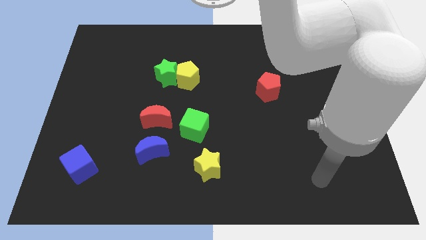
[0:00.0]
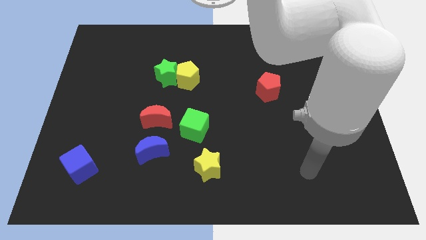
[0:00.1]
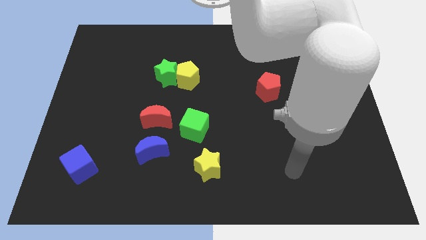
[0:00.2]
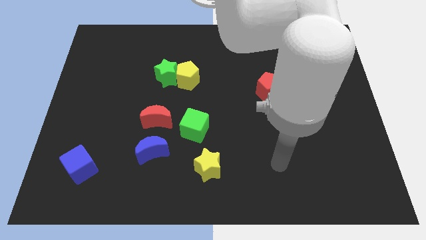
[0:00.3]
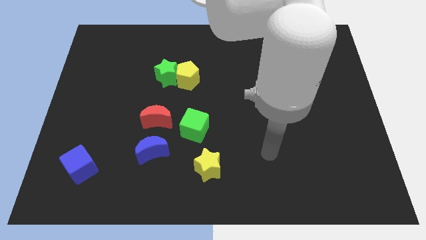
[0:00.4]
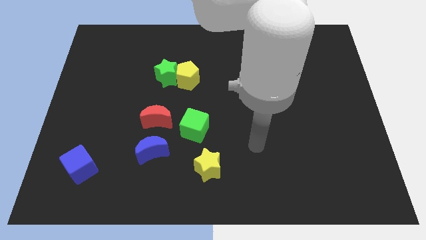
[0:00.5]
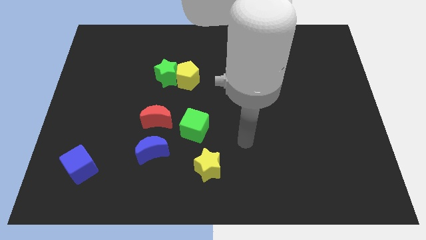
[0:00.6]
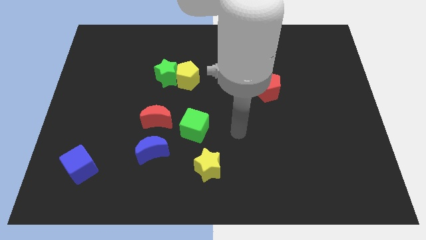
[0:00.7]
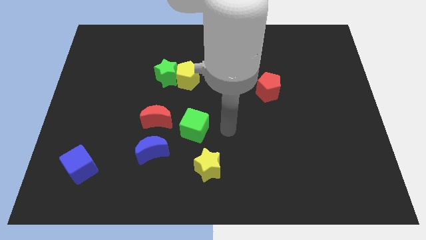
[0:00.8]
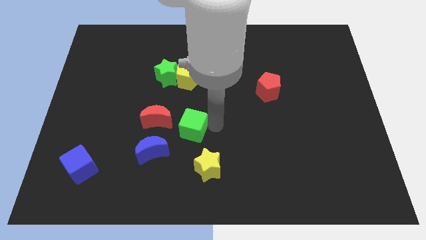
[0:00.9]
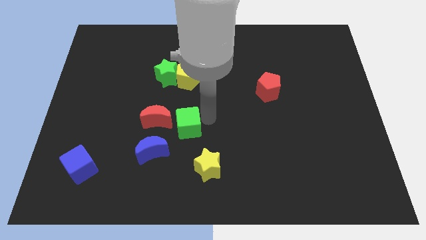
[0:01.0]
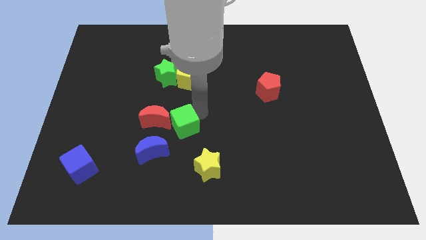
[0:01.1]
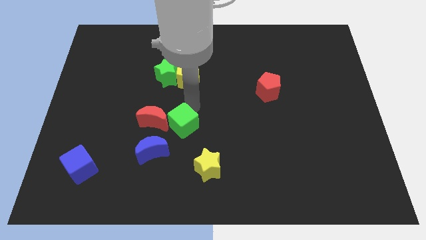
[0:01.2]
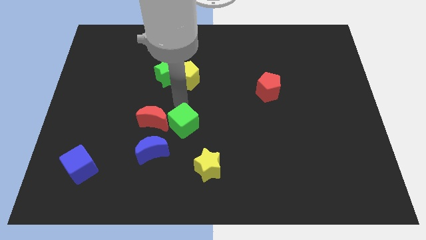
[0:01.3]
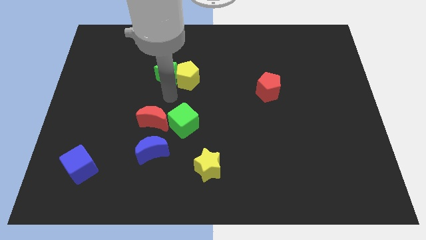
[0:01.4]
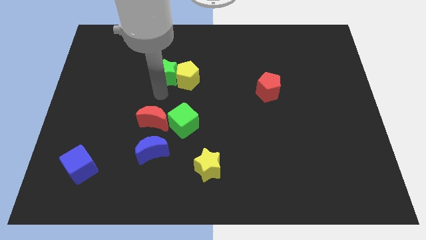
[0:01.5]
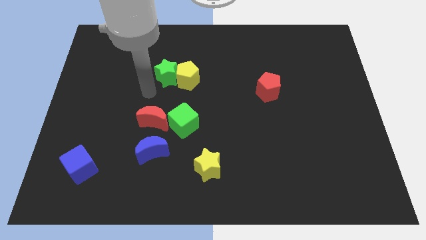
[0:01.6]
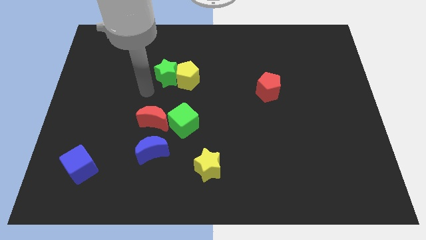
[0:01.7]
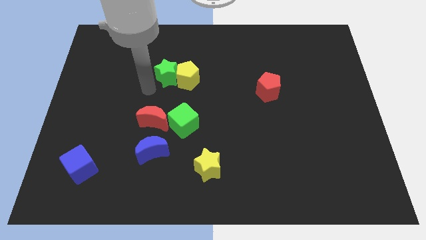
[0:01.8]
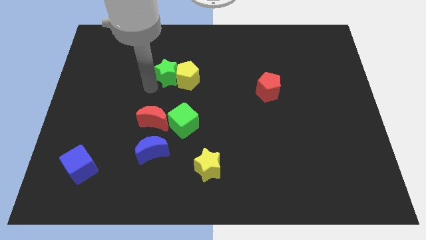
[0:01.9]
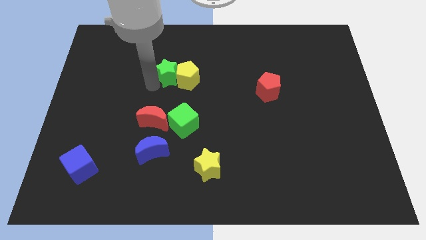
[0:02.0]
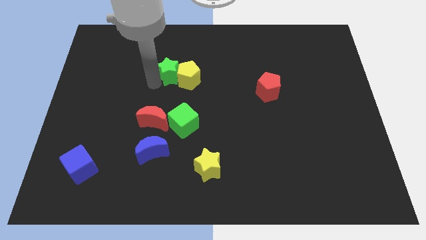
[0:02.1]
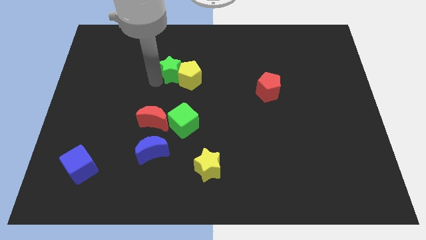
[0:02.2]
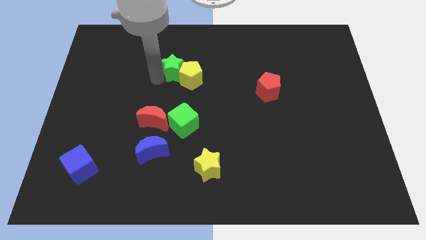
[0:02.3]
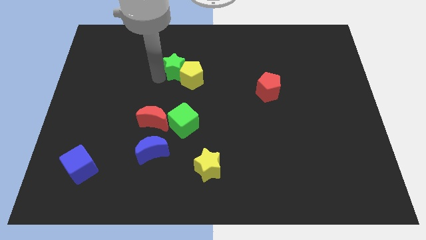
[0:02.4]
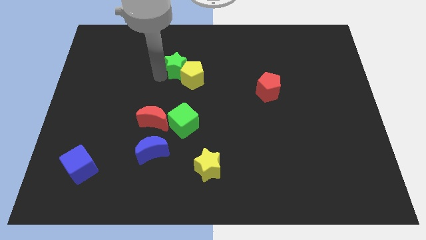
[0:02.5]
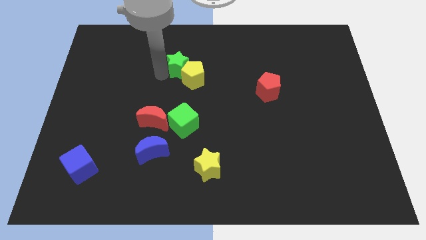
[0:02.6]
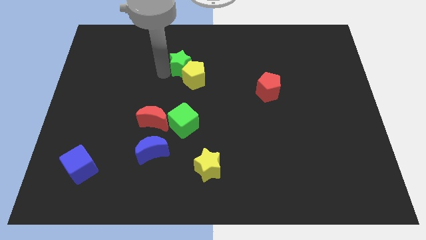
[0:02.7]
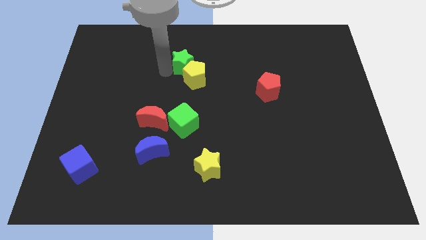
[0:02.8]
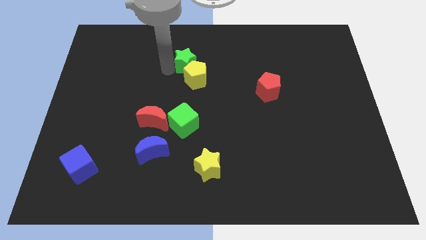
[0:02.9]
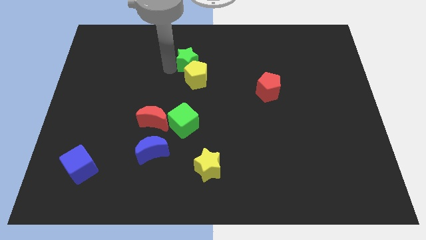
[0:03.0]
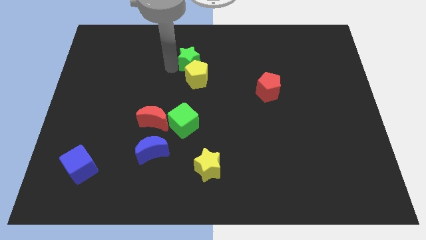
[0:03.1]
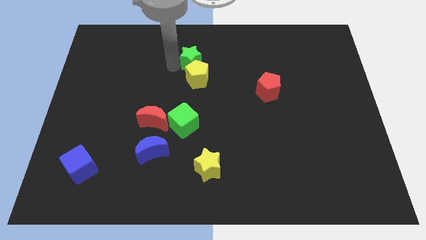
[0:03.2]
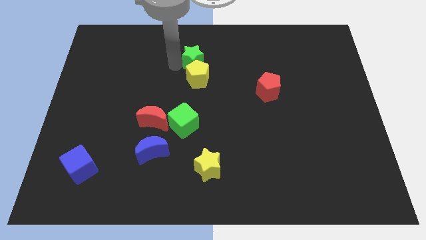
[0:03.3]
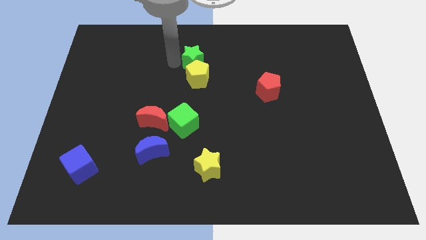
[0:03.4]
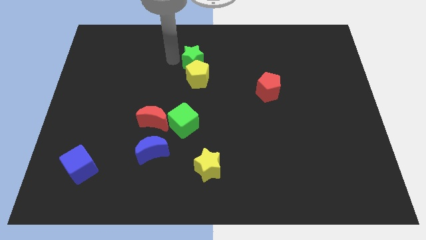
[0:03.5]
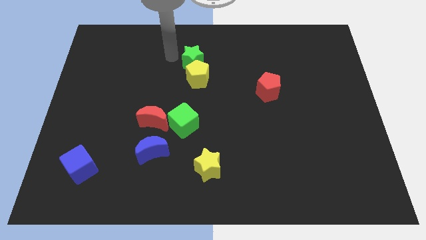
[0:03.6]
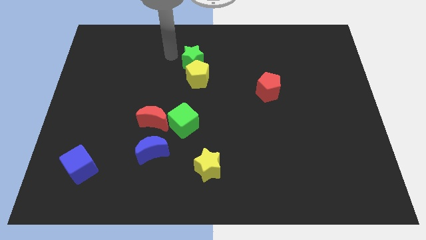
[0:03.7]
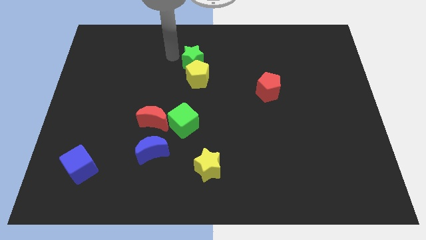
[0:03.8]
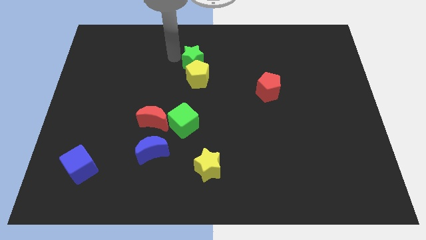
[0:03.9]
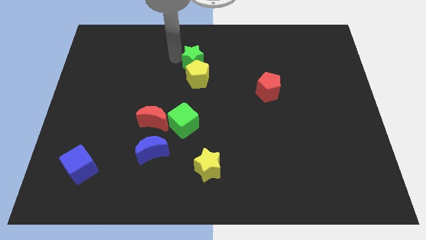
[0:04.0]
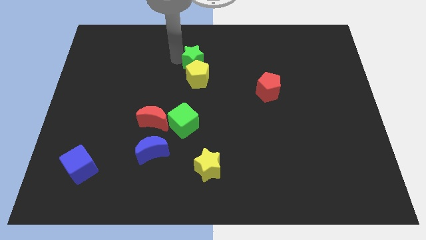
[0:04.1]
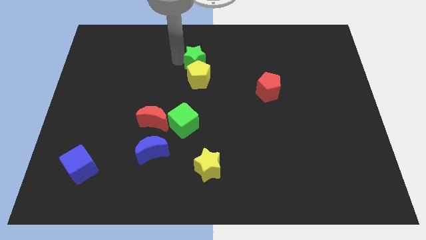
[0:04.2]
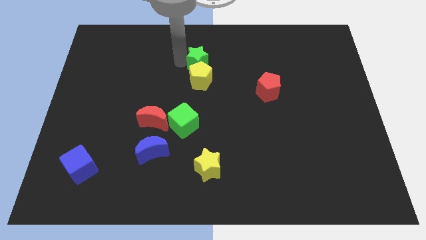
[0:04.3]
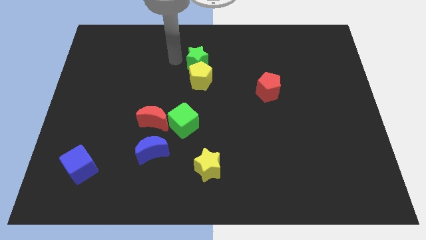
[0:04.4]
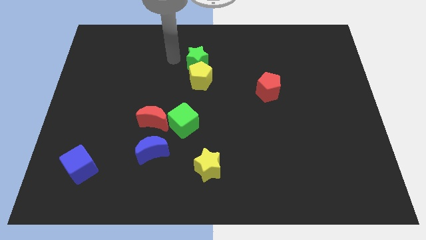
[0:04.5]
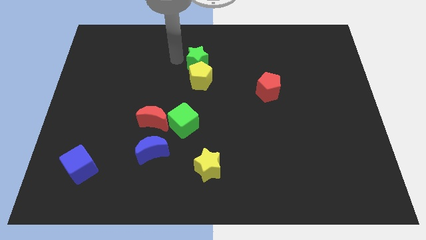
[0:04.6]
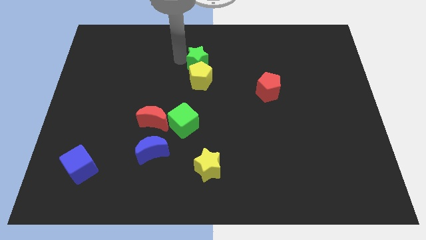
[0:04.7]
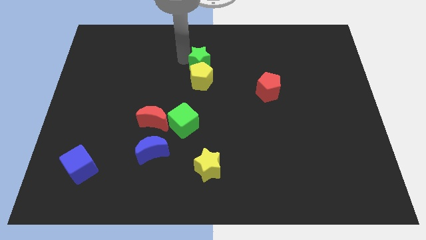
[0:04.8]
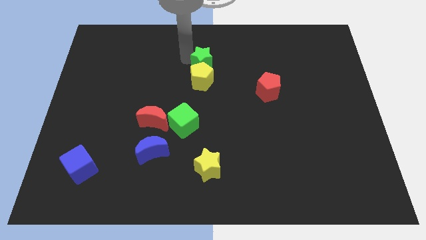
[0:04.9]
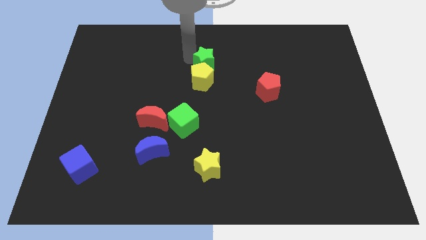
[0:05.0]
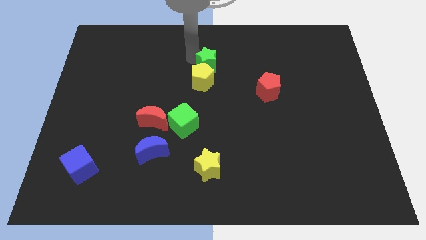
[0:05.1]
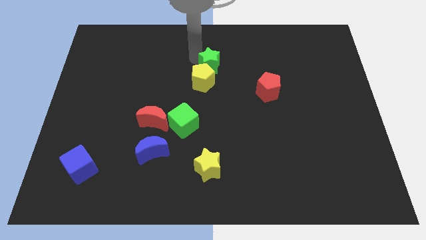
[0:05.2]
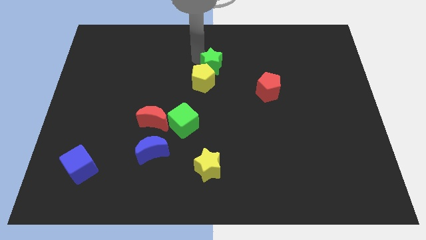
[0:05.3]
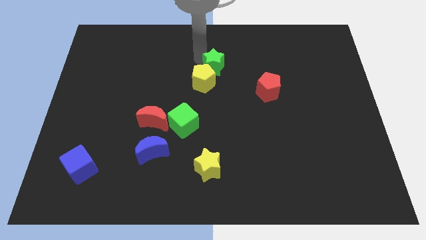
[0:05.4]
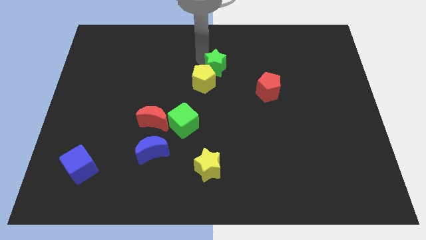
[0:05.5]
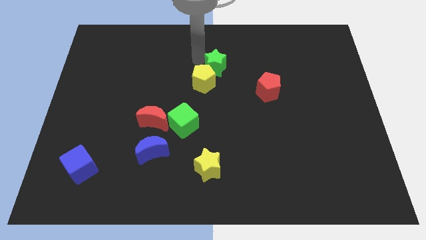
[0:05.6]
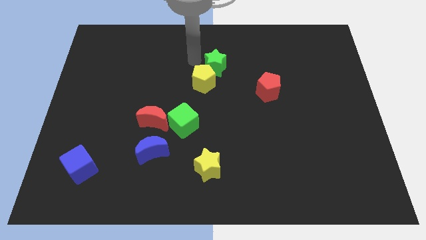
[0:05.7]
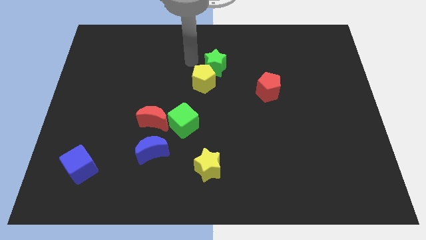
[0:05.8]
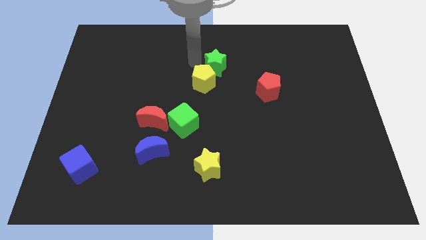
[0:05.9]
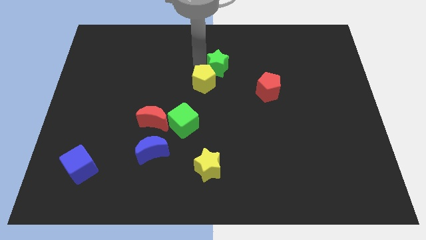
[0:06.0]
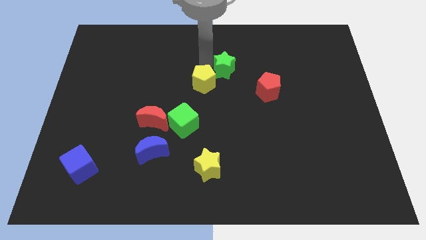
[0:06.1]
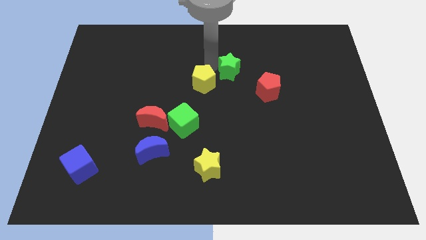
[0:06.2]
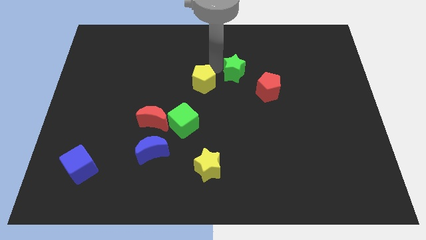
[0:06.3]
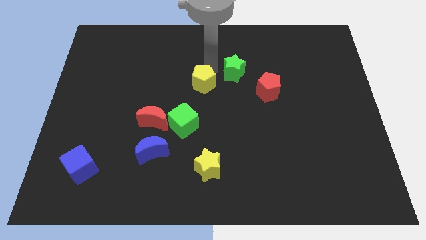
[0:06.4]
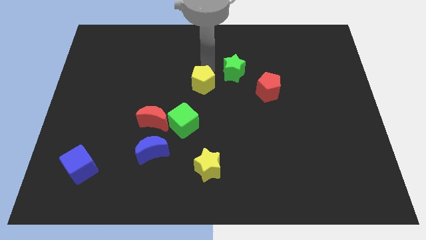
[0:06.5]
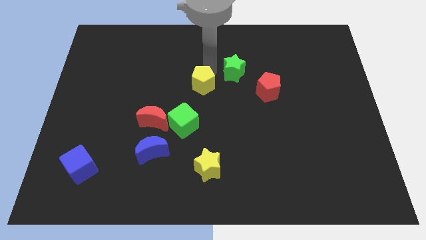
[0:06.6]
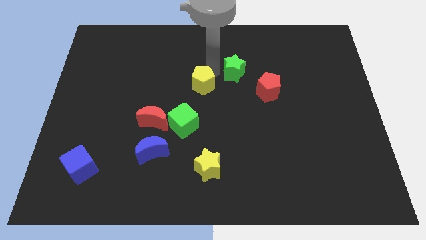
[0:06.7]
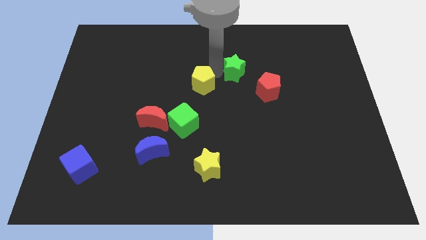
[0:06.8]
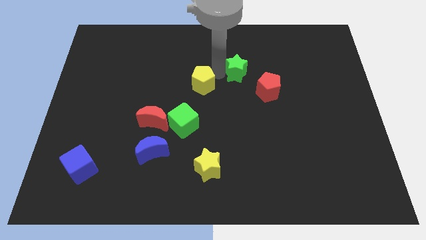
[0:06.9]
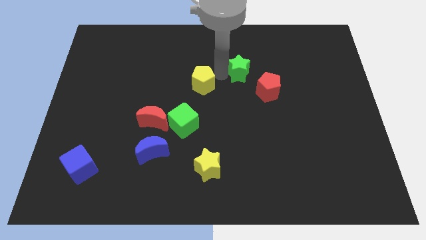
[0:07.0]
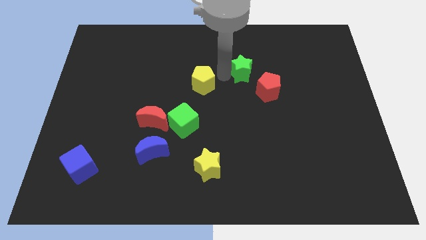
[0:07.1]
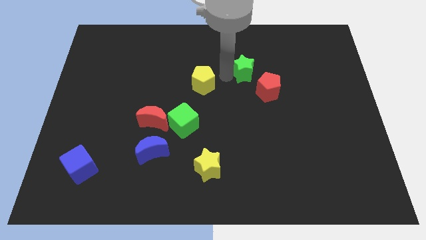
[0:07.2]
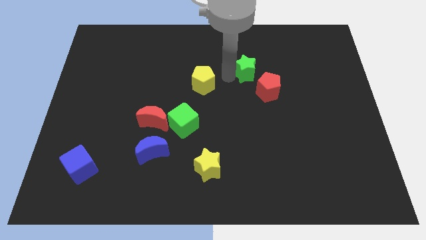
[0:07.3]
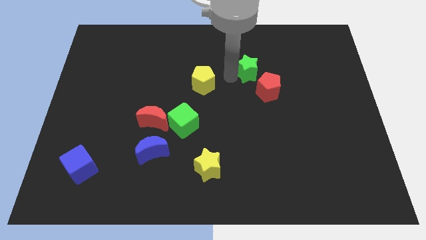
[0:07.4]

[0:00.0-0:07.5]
slide the green star right

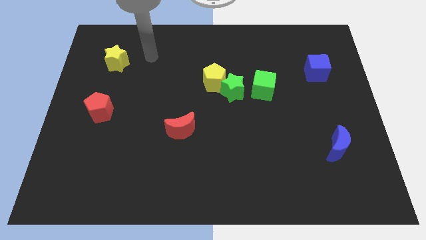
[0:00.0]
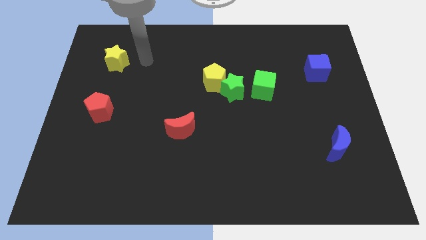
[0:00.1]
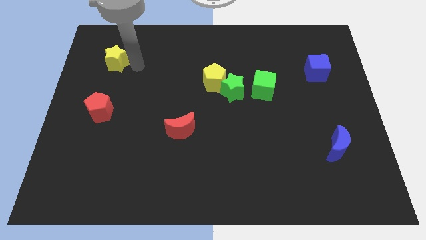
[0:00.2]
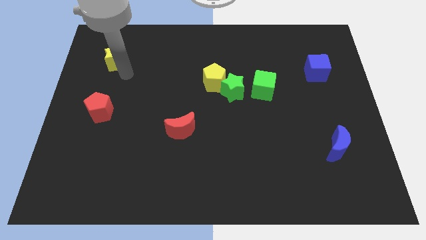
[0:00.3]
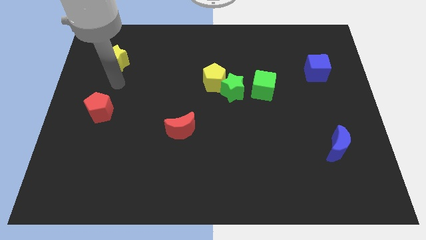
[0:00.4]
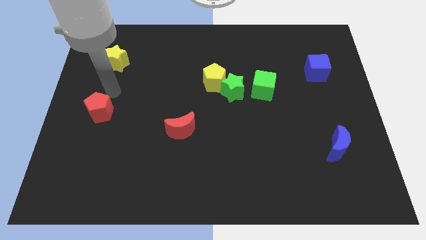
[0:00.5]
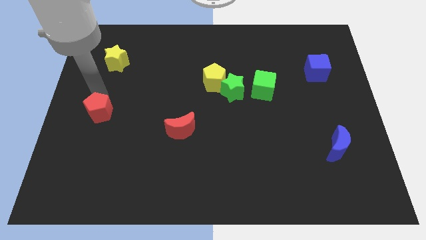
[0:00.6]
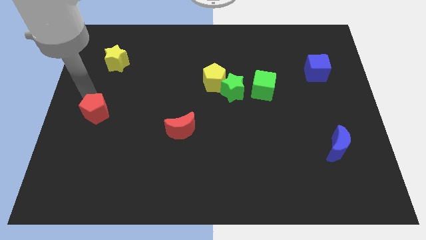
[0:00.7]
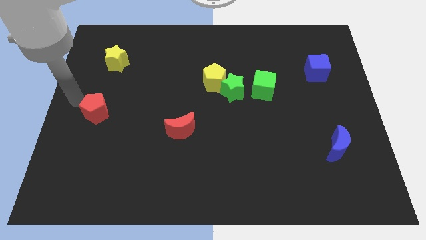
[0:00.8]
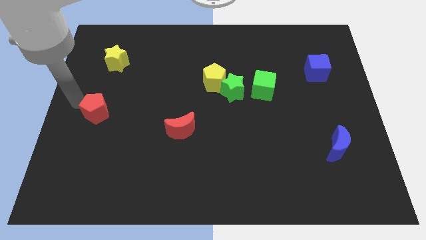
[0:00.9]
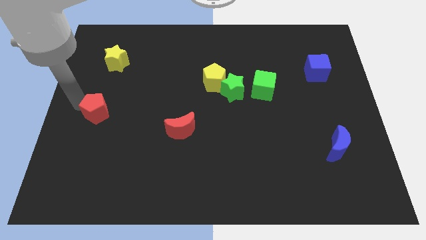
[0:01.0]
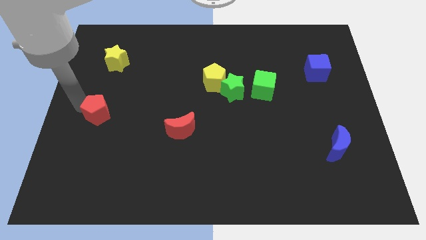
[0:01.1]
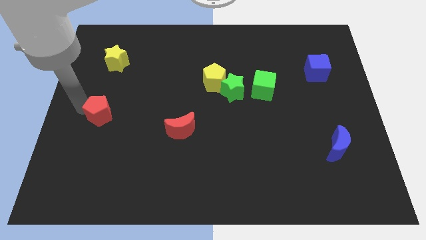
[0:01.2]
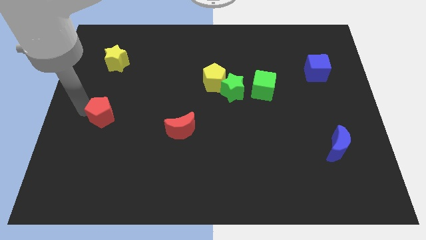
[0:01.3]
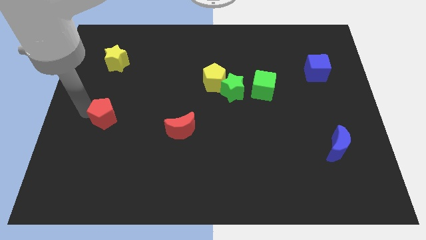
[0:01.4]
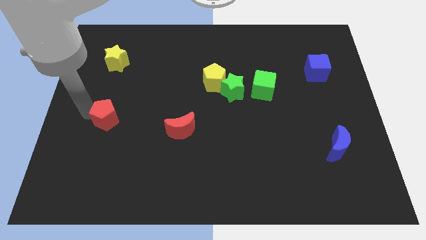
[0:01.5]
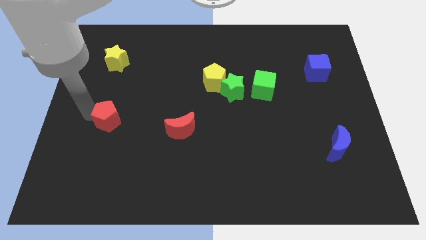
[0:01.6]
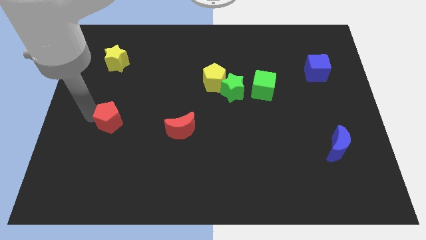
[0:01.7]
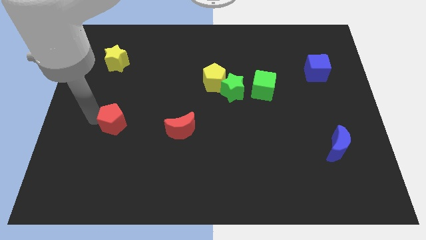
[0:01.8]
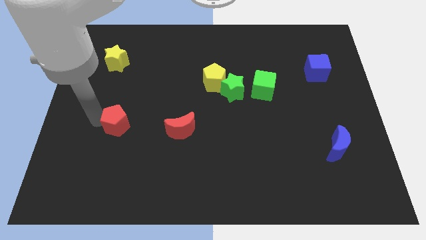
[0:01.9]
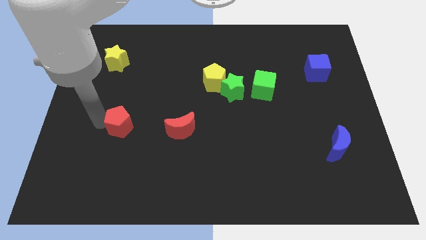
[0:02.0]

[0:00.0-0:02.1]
slightly push the red pentagon downwards and to the right
